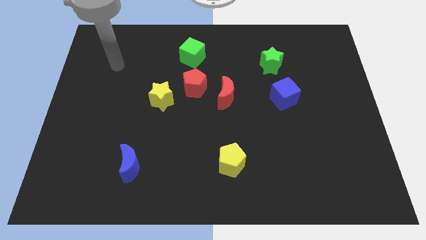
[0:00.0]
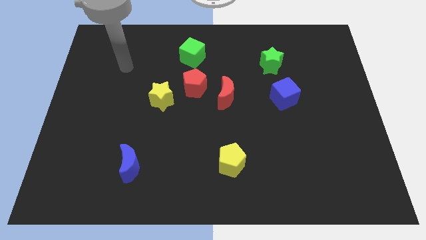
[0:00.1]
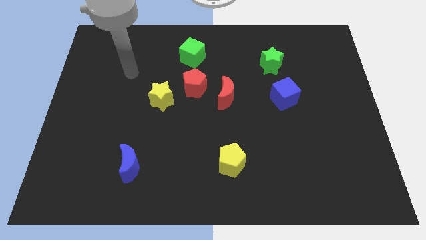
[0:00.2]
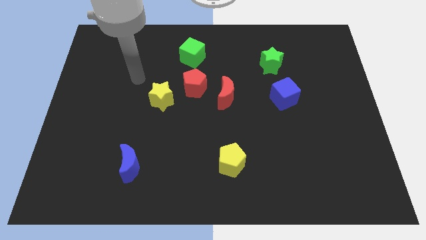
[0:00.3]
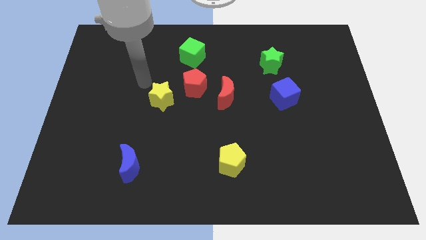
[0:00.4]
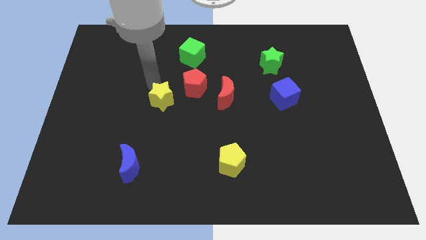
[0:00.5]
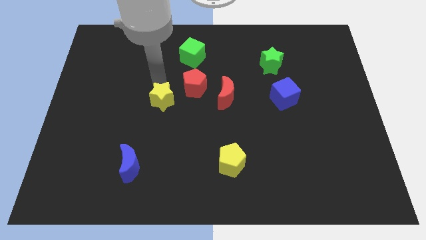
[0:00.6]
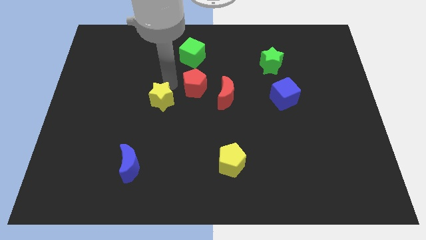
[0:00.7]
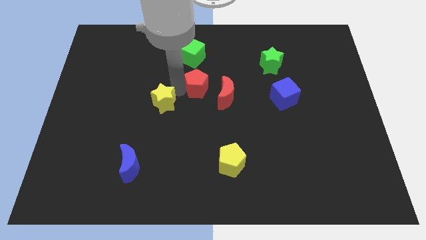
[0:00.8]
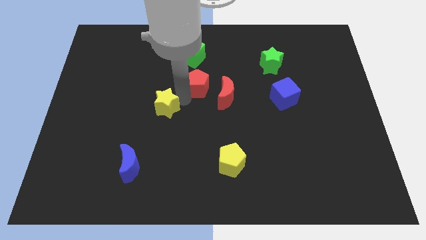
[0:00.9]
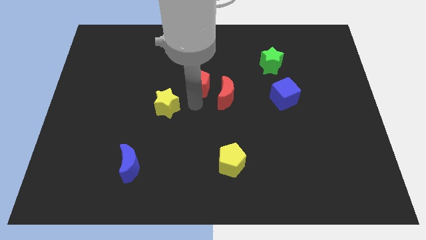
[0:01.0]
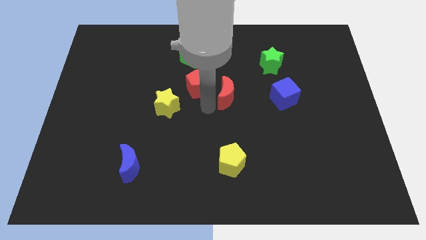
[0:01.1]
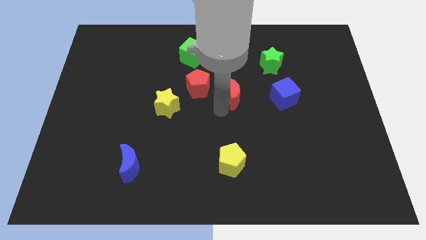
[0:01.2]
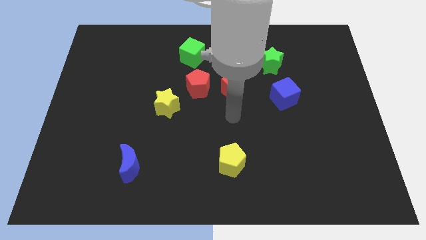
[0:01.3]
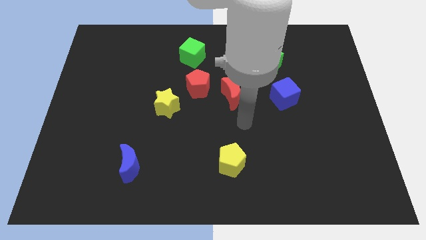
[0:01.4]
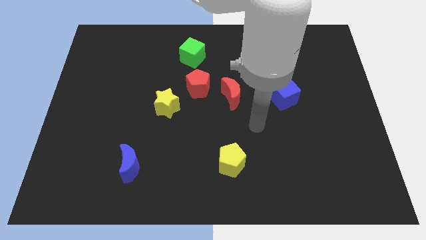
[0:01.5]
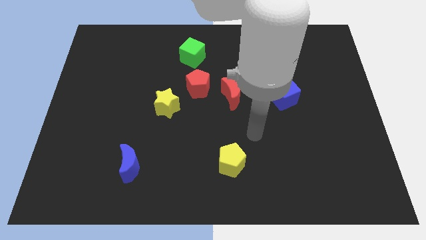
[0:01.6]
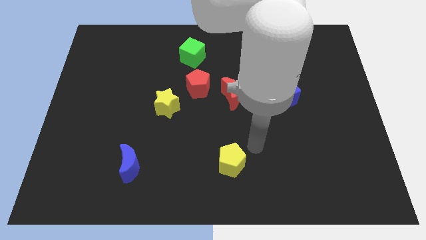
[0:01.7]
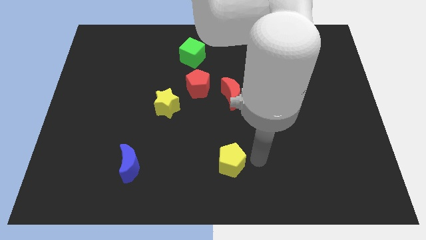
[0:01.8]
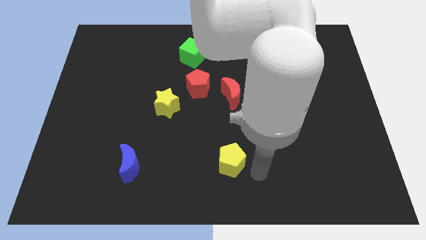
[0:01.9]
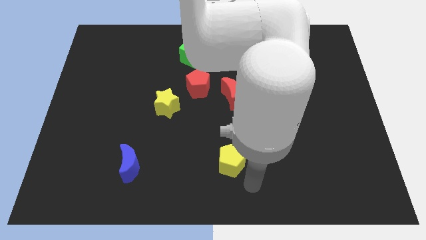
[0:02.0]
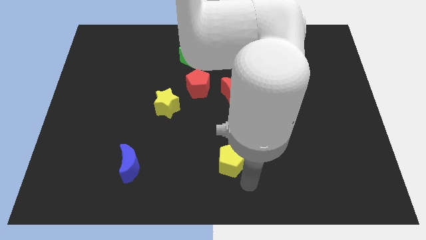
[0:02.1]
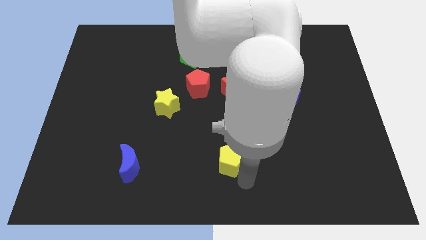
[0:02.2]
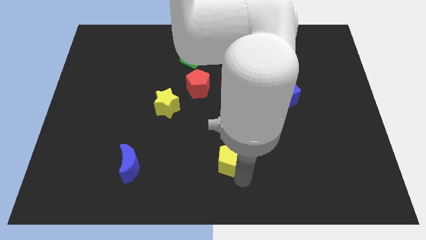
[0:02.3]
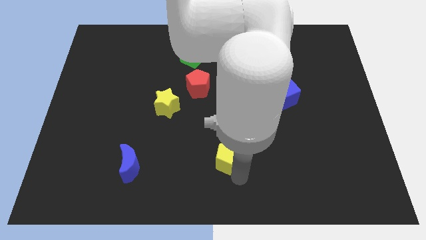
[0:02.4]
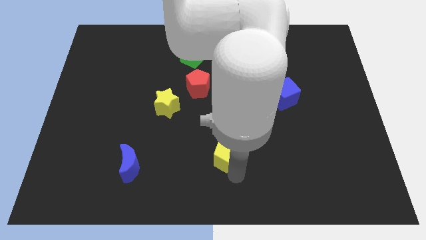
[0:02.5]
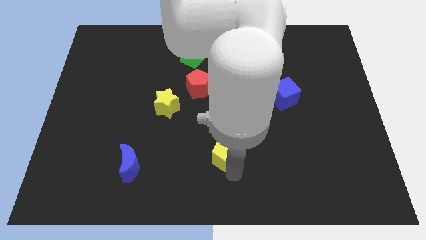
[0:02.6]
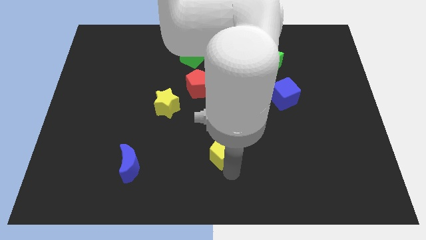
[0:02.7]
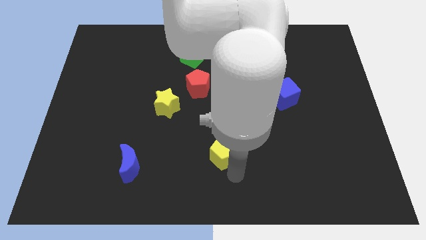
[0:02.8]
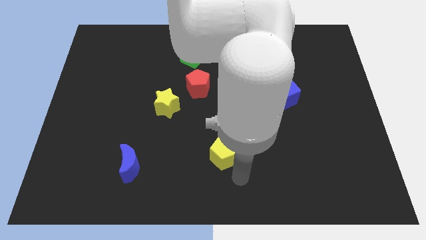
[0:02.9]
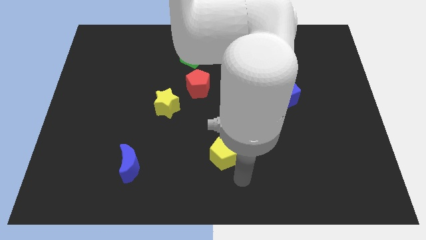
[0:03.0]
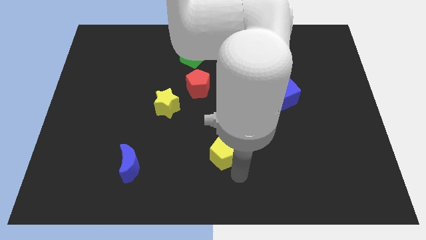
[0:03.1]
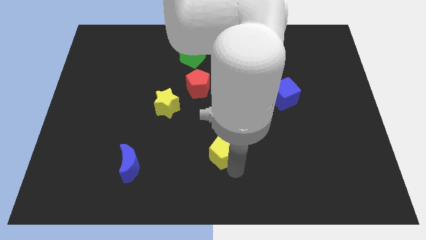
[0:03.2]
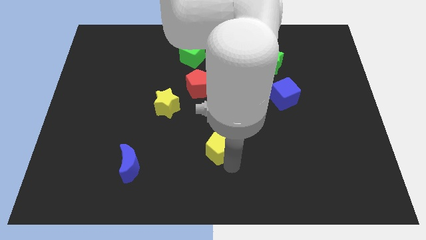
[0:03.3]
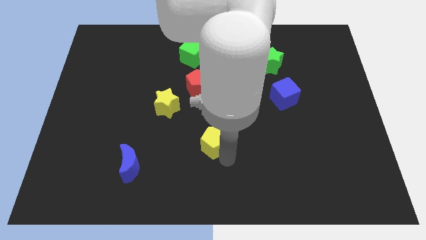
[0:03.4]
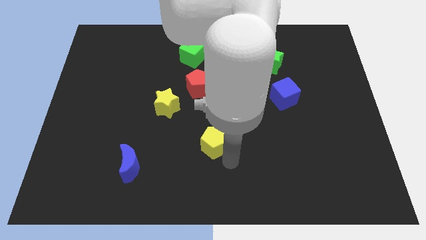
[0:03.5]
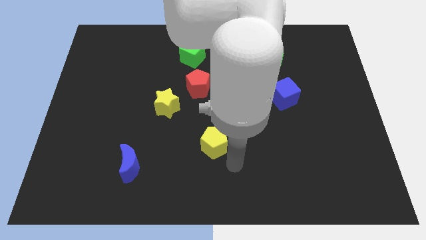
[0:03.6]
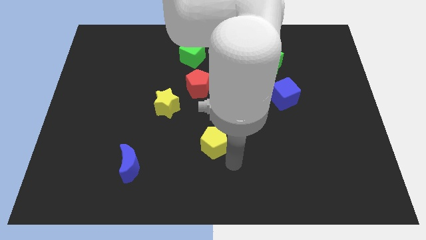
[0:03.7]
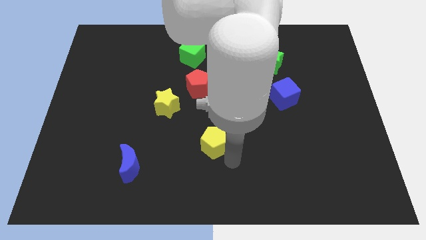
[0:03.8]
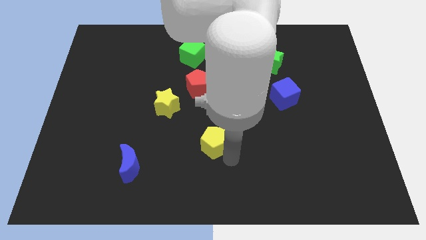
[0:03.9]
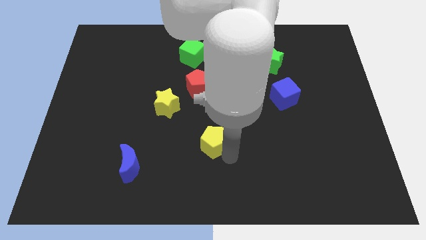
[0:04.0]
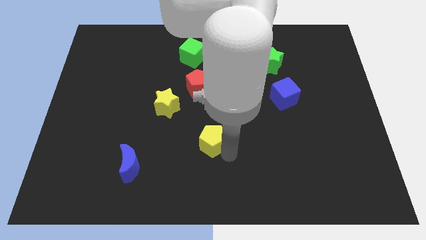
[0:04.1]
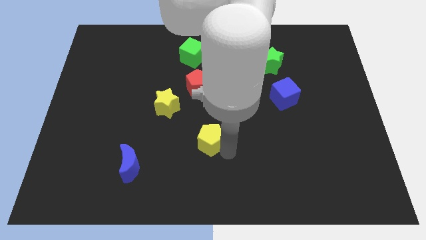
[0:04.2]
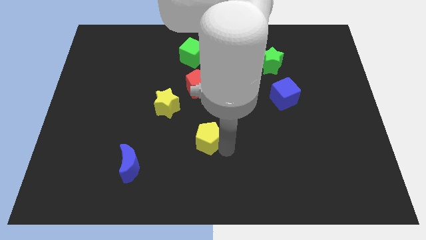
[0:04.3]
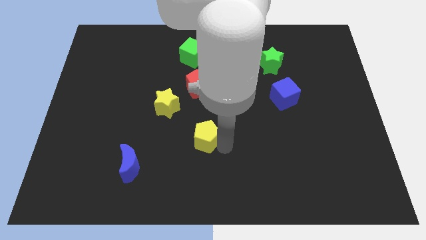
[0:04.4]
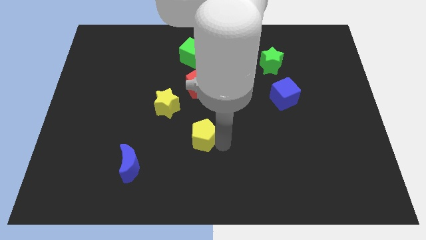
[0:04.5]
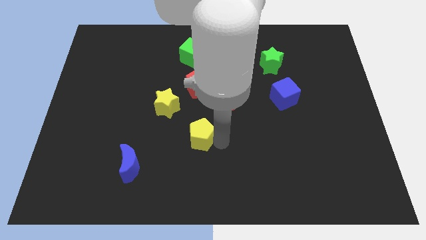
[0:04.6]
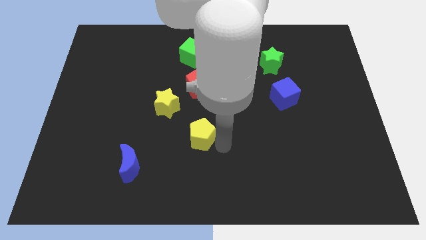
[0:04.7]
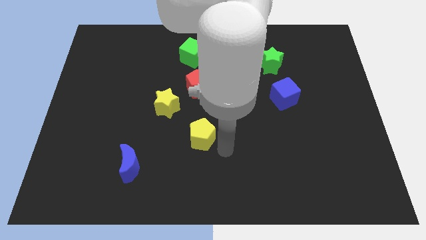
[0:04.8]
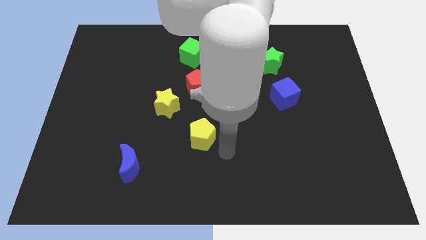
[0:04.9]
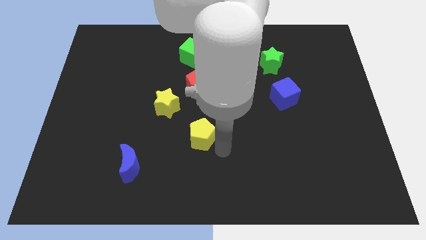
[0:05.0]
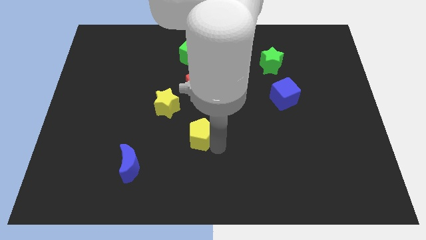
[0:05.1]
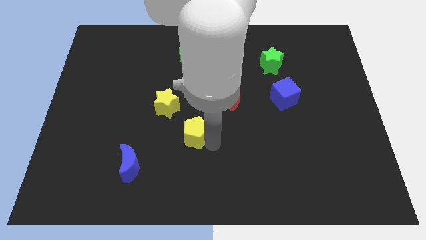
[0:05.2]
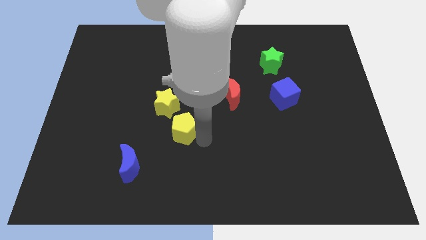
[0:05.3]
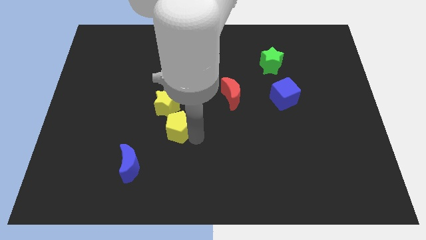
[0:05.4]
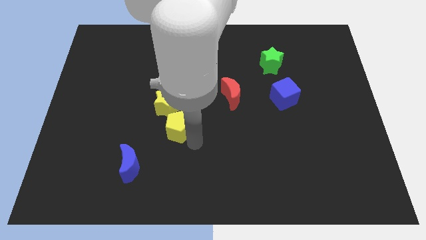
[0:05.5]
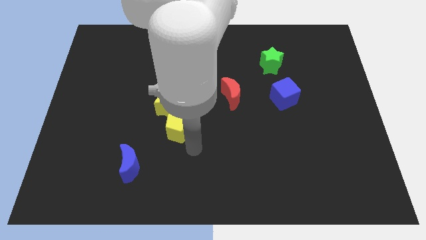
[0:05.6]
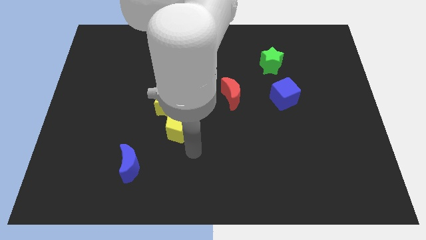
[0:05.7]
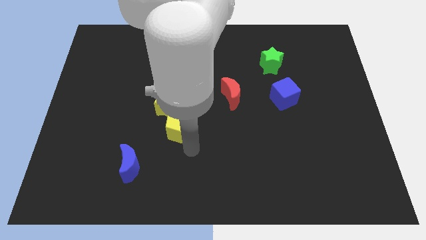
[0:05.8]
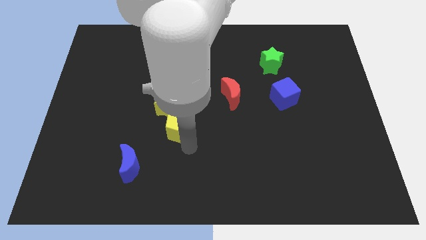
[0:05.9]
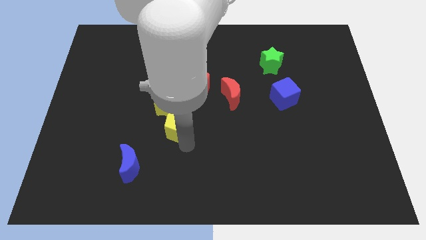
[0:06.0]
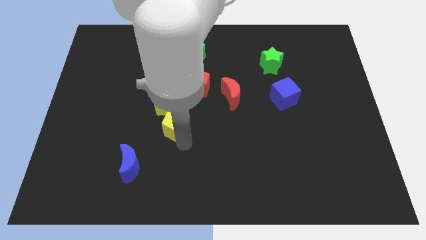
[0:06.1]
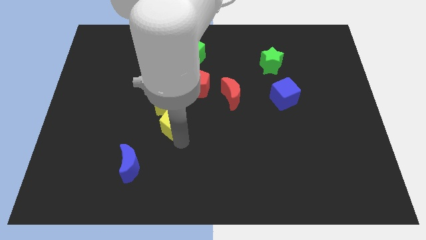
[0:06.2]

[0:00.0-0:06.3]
put the yellow pentagon close to the yellow star
